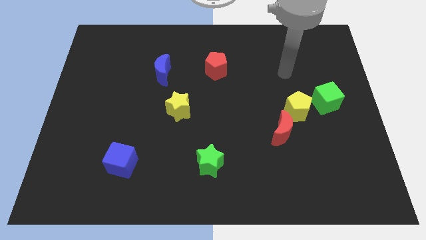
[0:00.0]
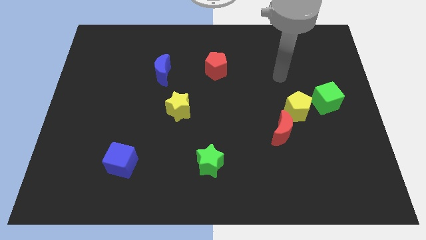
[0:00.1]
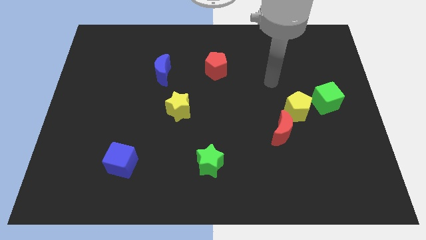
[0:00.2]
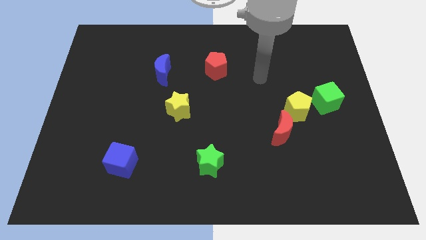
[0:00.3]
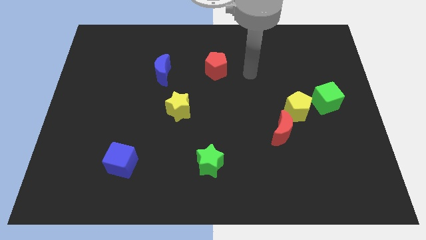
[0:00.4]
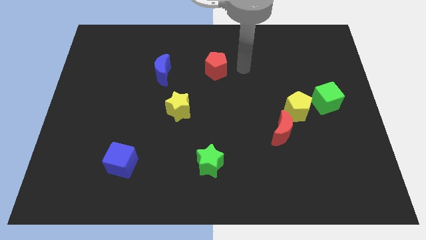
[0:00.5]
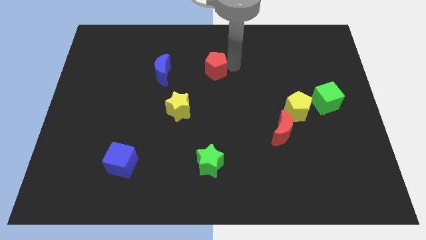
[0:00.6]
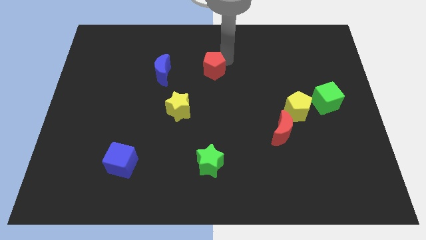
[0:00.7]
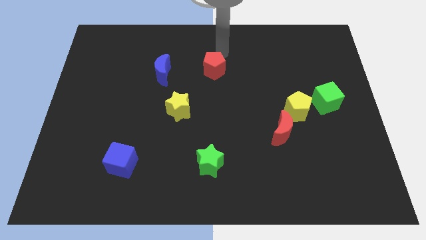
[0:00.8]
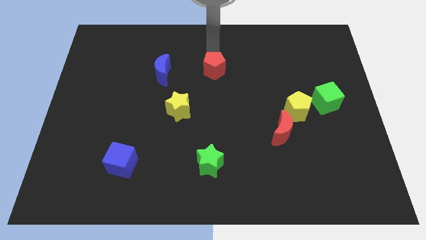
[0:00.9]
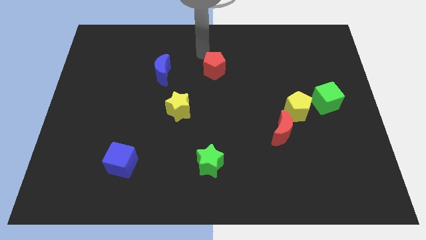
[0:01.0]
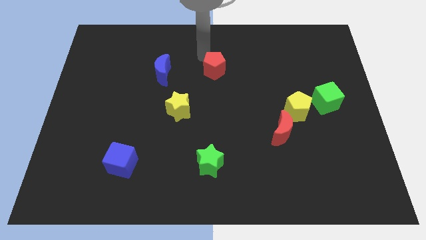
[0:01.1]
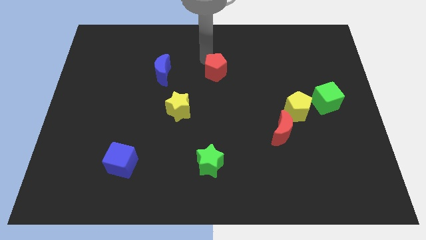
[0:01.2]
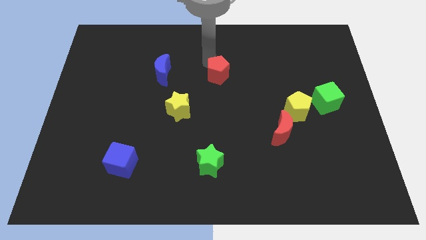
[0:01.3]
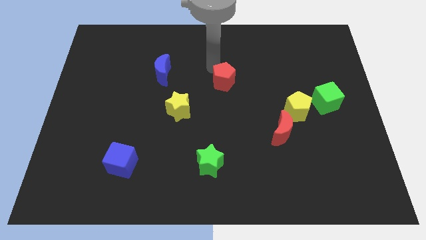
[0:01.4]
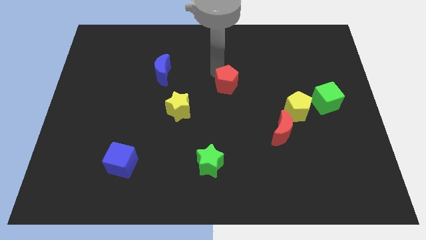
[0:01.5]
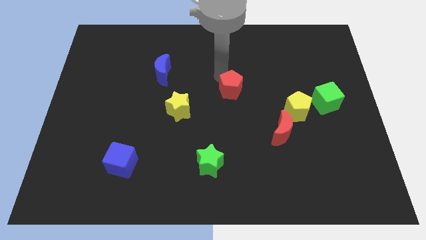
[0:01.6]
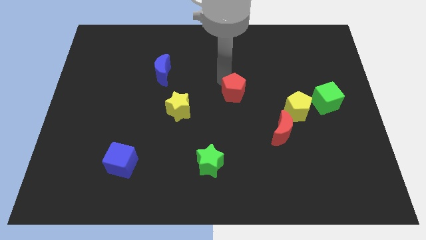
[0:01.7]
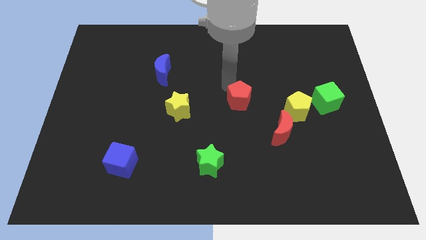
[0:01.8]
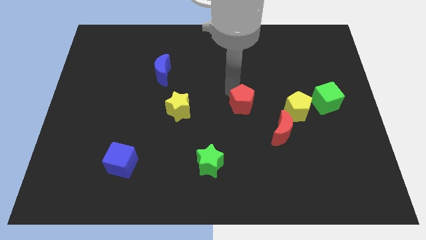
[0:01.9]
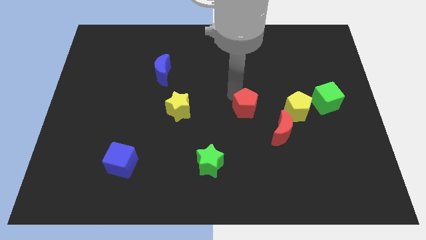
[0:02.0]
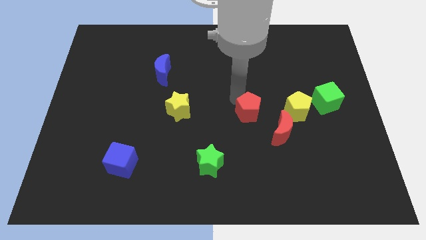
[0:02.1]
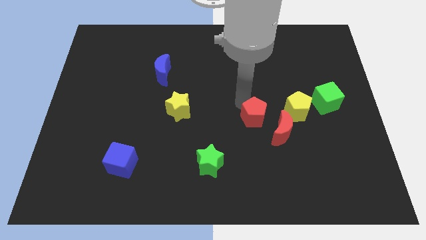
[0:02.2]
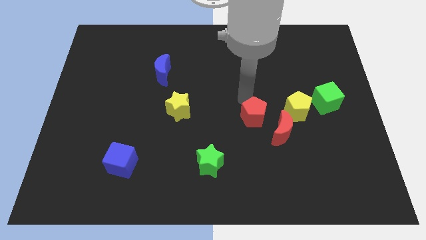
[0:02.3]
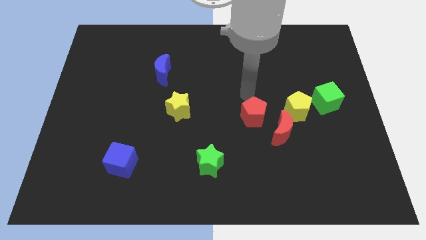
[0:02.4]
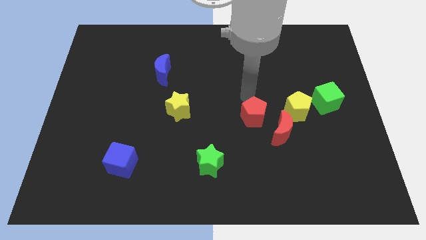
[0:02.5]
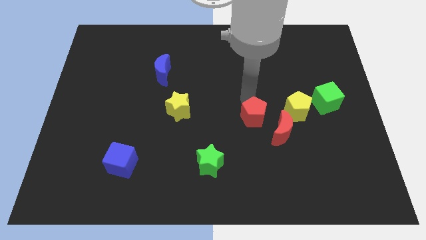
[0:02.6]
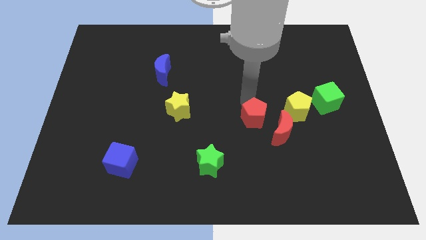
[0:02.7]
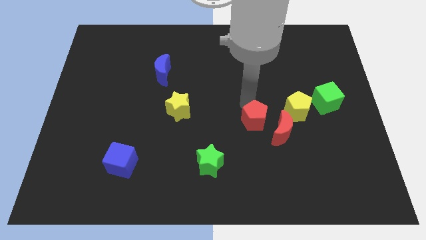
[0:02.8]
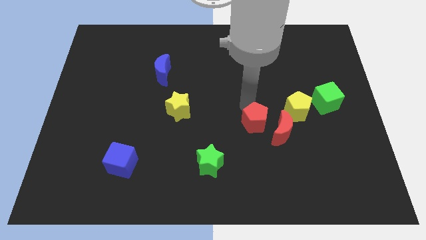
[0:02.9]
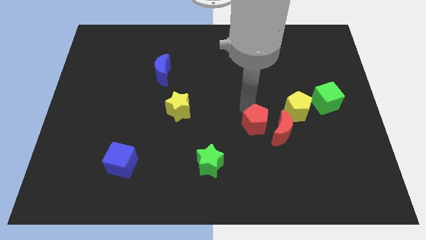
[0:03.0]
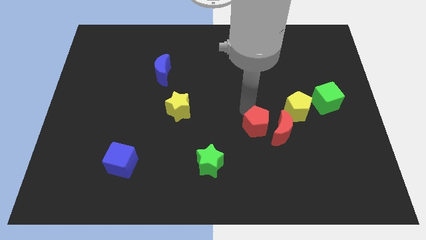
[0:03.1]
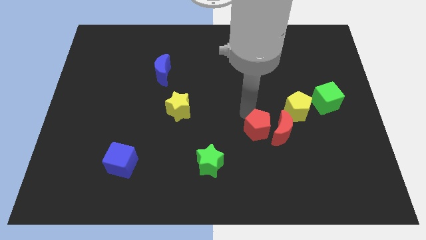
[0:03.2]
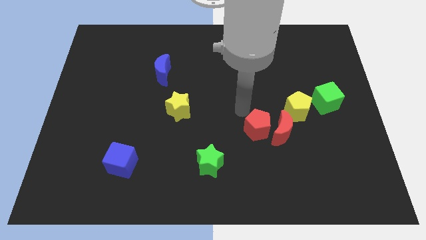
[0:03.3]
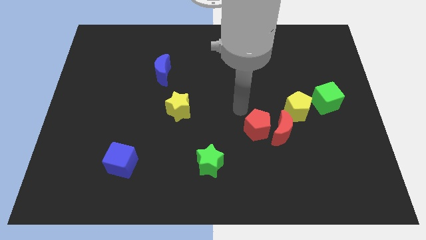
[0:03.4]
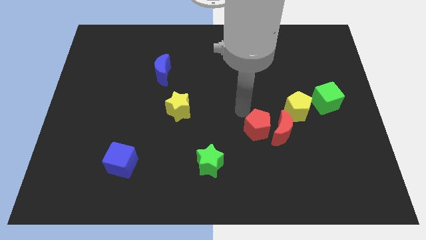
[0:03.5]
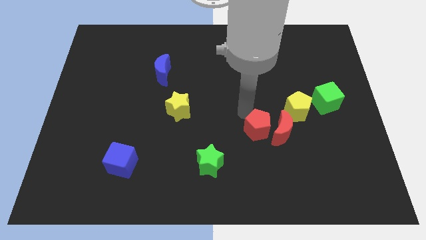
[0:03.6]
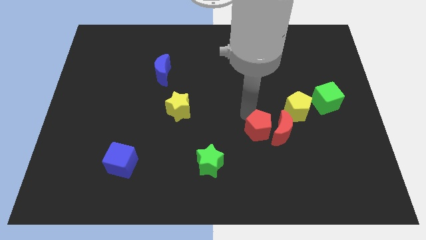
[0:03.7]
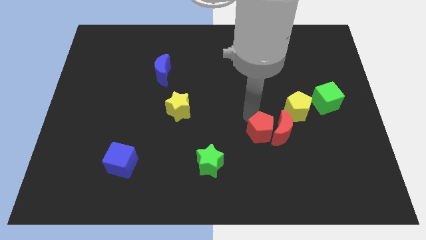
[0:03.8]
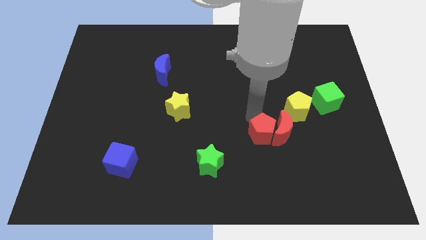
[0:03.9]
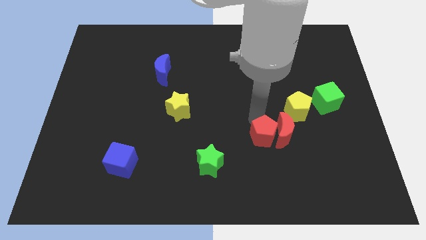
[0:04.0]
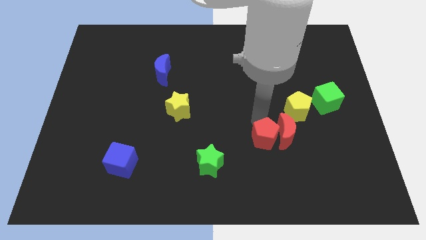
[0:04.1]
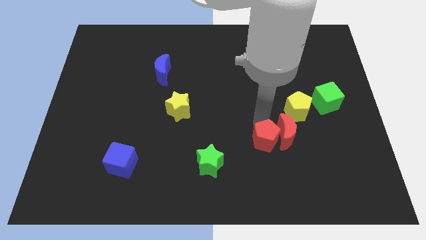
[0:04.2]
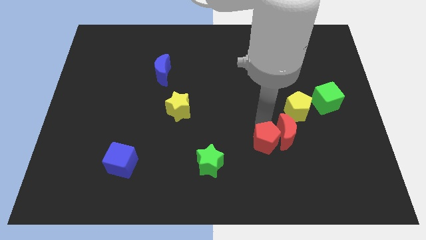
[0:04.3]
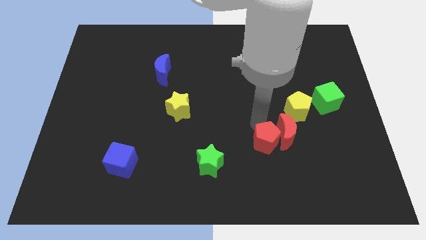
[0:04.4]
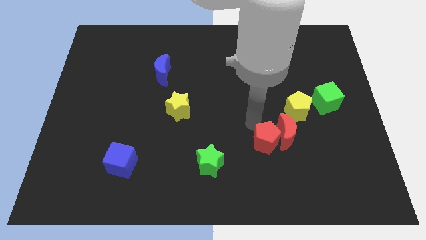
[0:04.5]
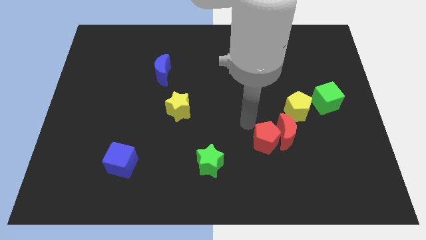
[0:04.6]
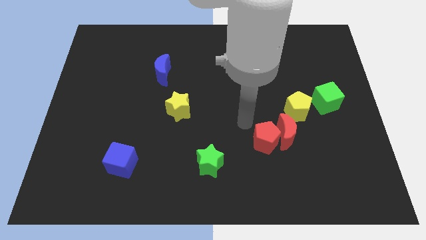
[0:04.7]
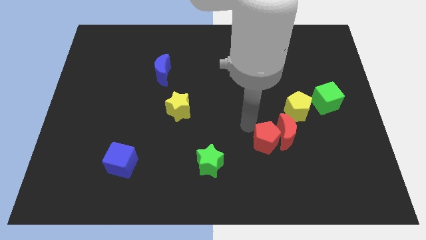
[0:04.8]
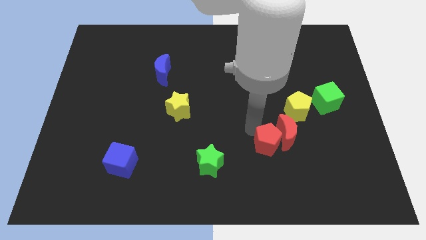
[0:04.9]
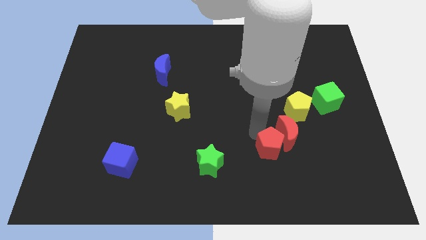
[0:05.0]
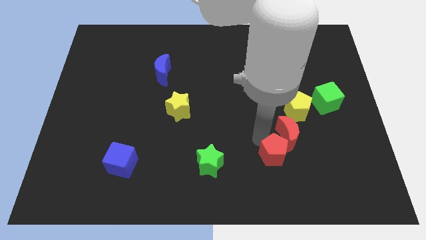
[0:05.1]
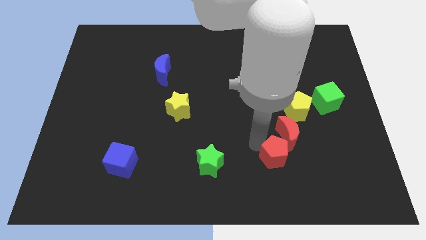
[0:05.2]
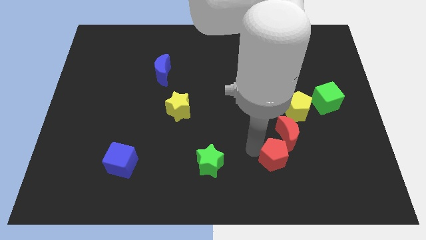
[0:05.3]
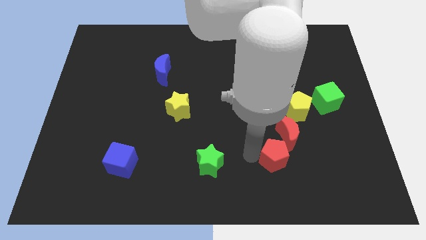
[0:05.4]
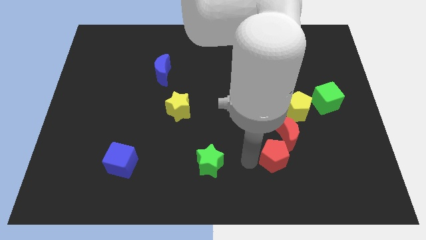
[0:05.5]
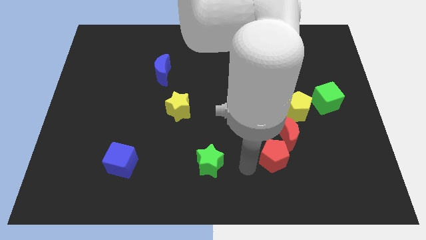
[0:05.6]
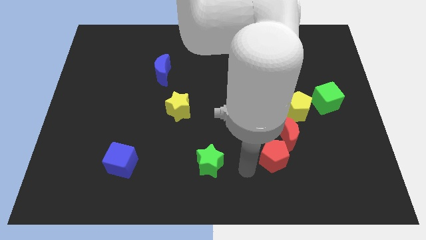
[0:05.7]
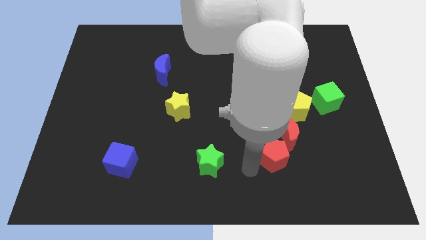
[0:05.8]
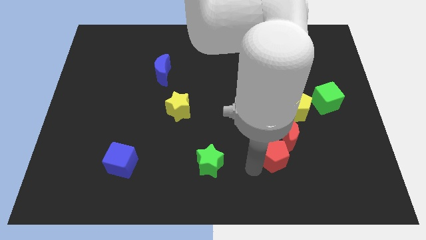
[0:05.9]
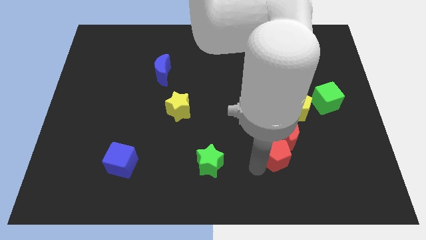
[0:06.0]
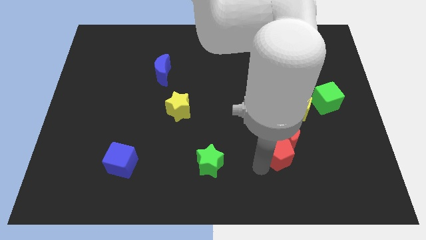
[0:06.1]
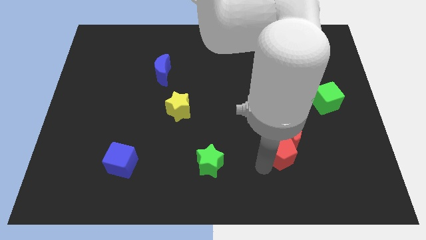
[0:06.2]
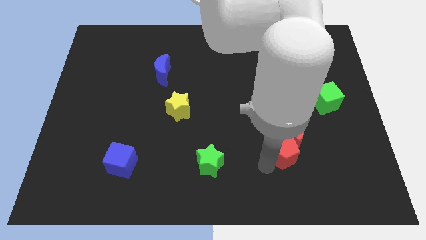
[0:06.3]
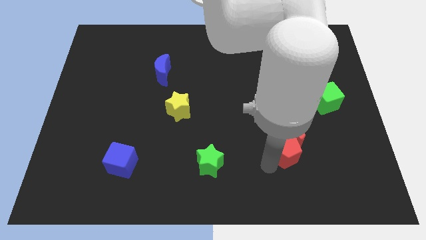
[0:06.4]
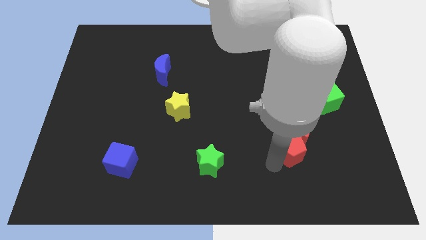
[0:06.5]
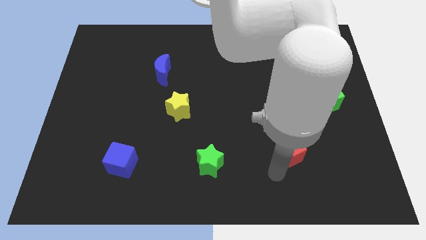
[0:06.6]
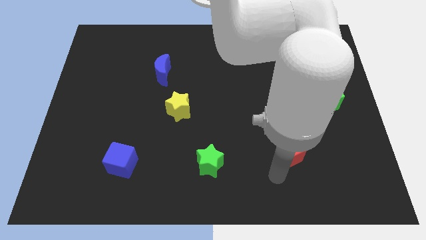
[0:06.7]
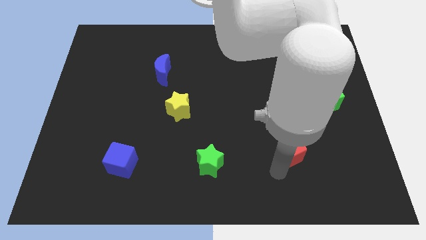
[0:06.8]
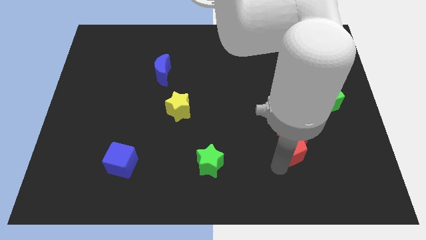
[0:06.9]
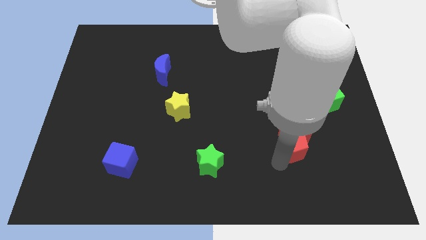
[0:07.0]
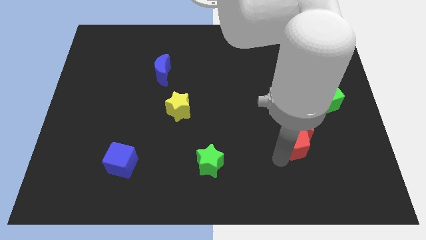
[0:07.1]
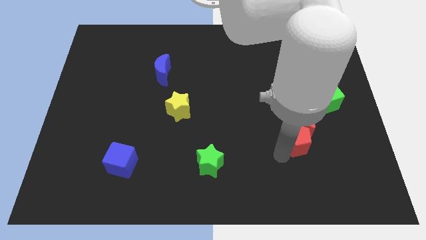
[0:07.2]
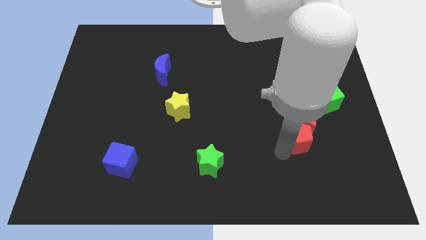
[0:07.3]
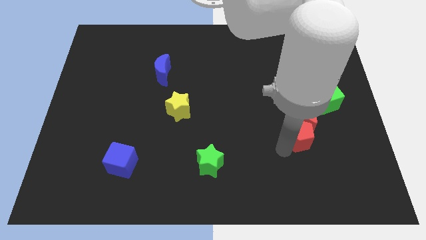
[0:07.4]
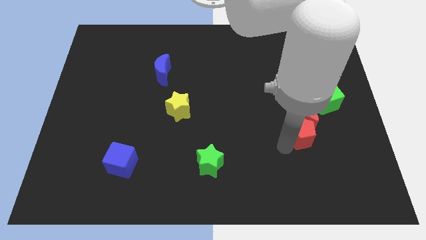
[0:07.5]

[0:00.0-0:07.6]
move the red pentagon to the bottom left side of the green cube
